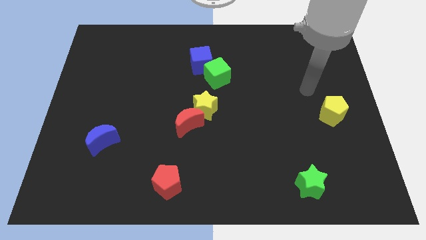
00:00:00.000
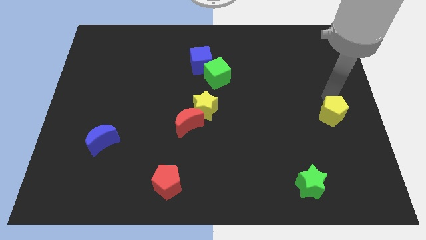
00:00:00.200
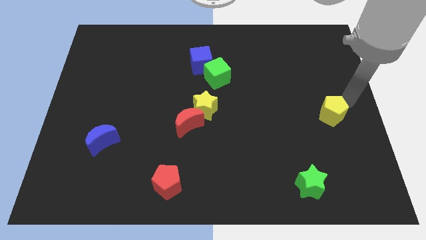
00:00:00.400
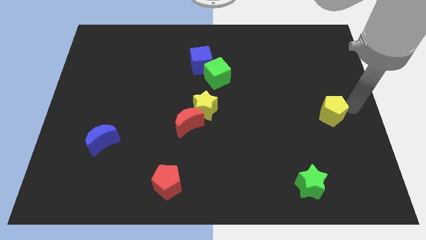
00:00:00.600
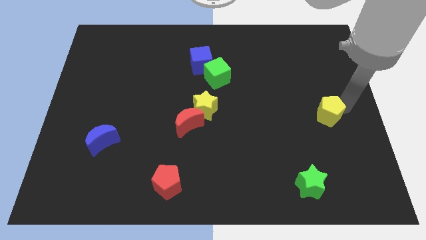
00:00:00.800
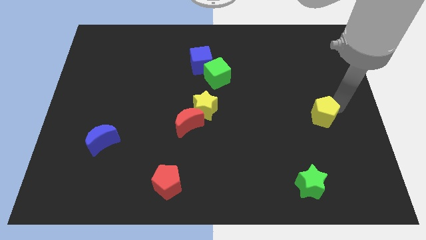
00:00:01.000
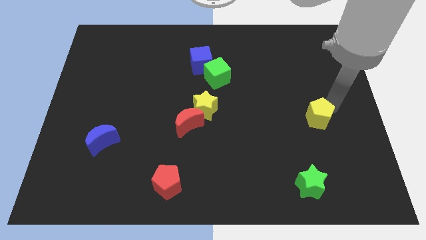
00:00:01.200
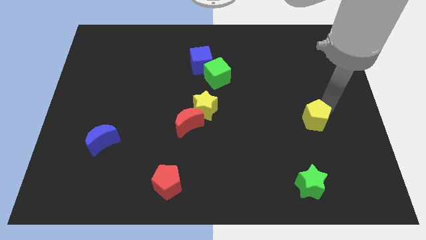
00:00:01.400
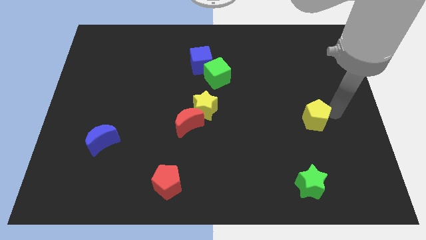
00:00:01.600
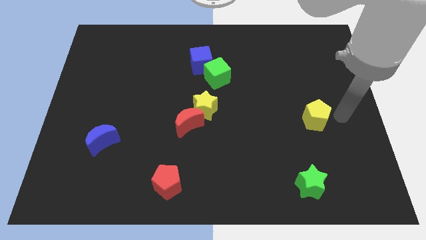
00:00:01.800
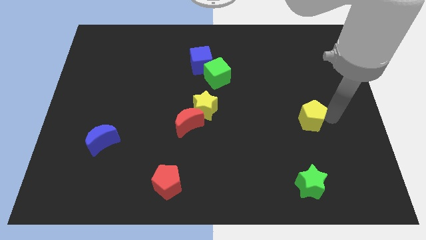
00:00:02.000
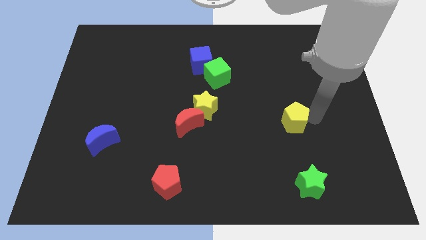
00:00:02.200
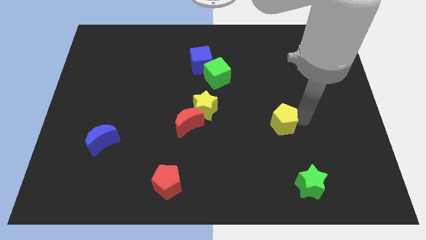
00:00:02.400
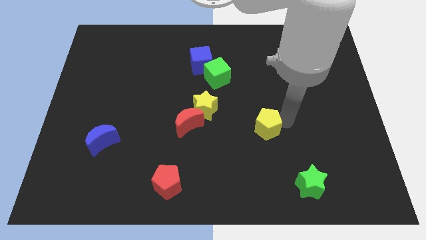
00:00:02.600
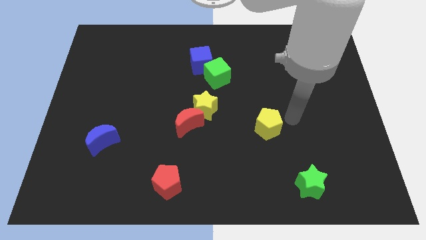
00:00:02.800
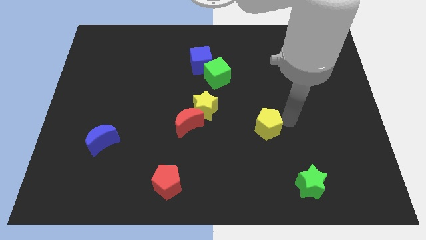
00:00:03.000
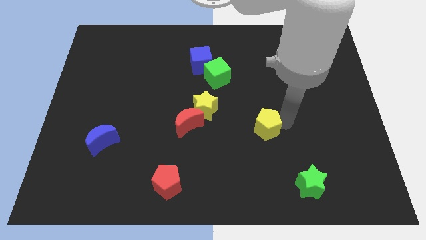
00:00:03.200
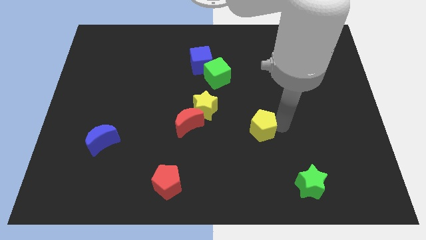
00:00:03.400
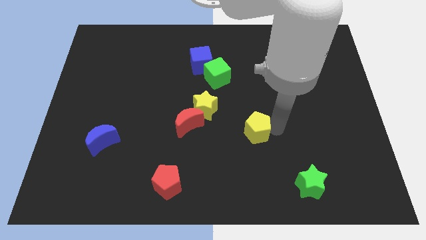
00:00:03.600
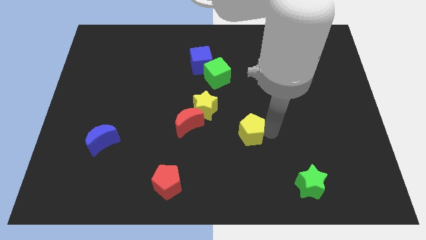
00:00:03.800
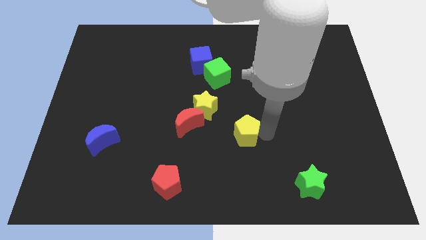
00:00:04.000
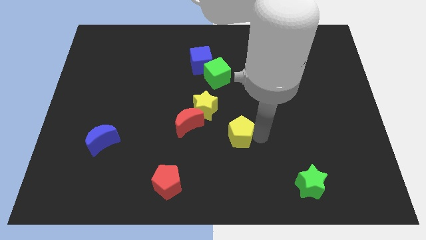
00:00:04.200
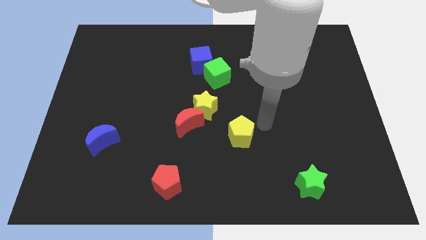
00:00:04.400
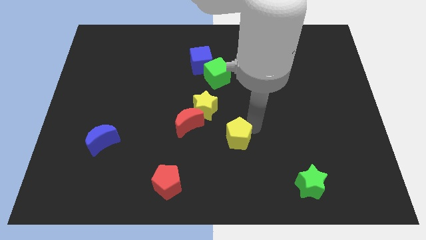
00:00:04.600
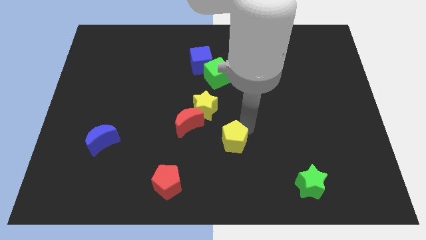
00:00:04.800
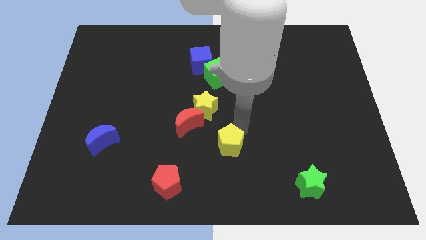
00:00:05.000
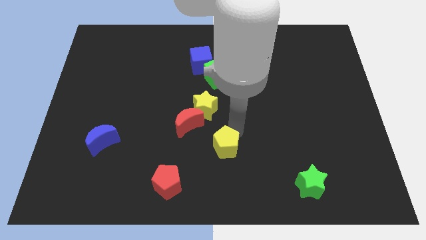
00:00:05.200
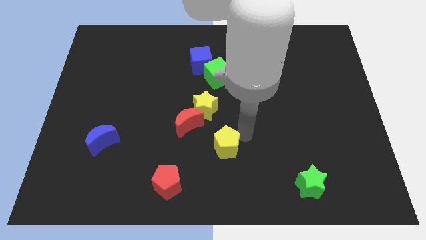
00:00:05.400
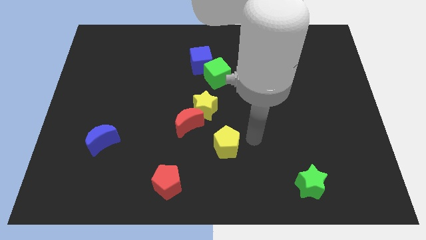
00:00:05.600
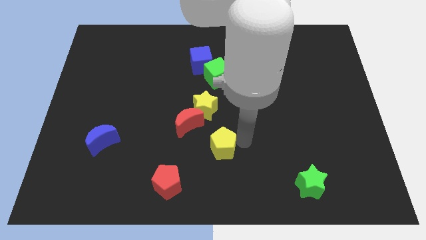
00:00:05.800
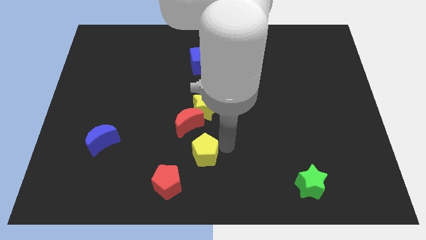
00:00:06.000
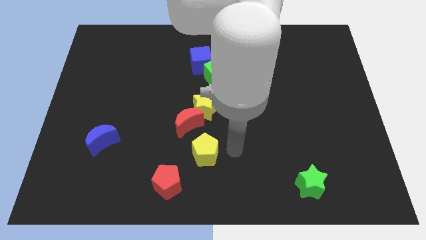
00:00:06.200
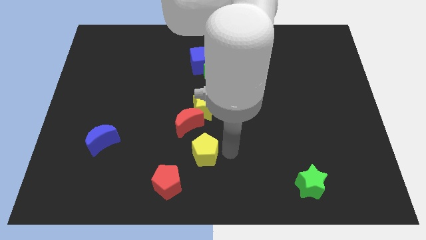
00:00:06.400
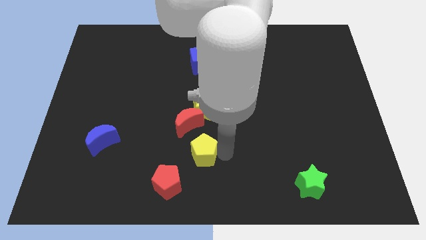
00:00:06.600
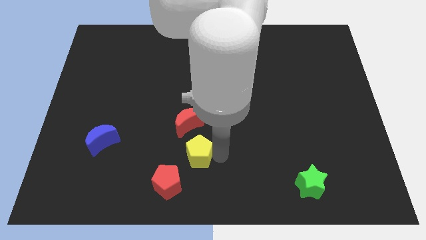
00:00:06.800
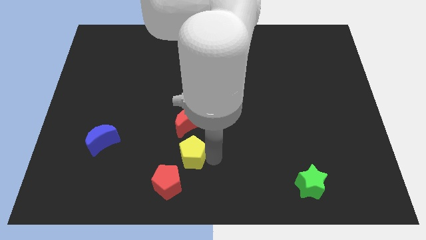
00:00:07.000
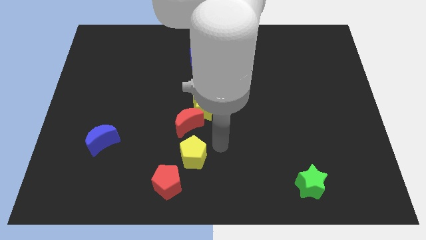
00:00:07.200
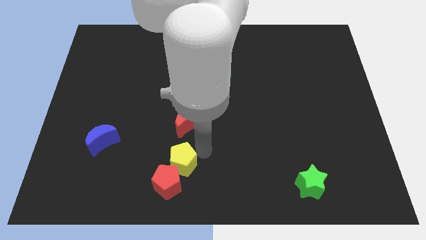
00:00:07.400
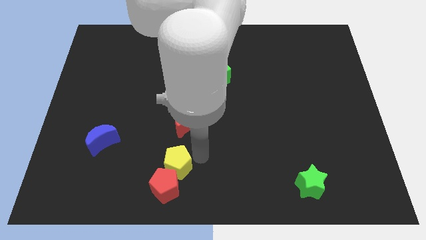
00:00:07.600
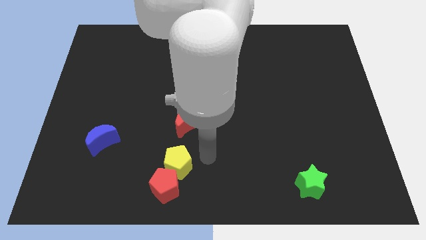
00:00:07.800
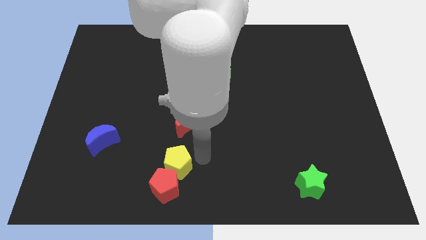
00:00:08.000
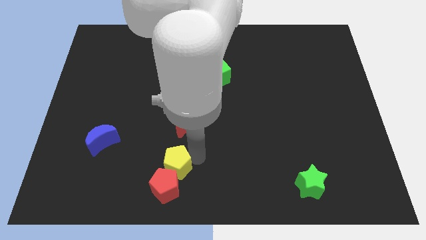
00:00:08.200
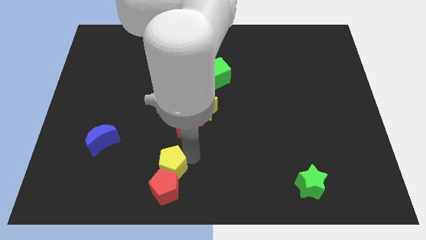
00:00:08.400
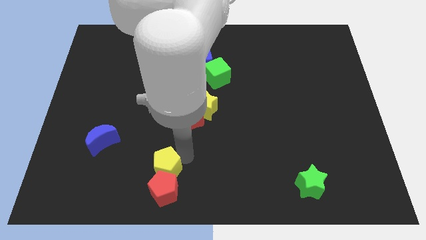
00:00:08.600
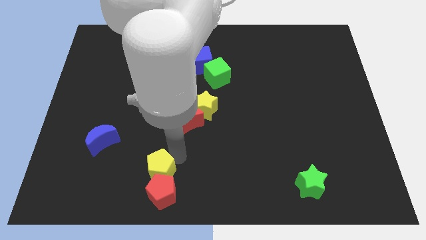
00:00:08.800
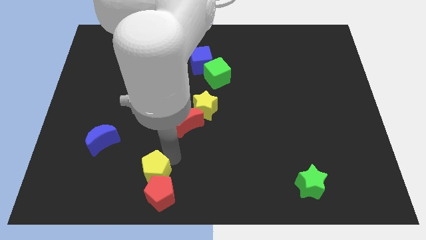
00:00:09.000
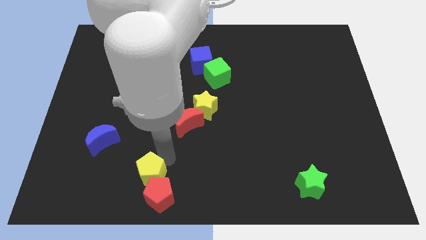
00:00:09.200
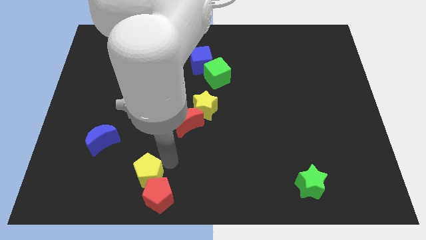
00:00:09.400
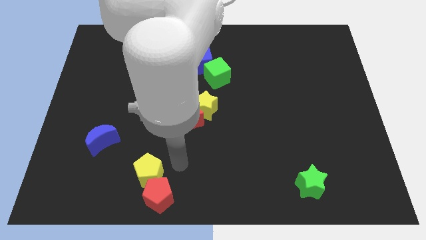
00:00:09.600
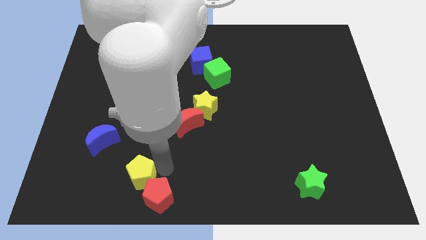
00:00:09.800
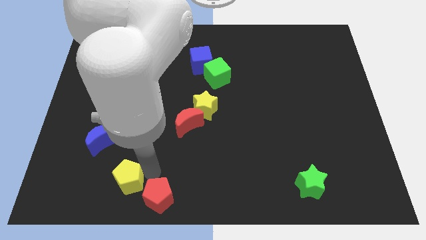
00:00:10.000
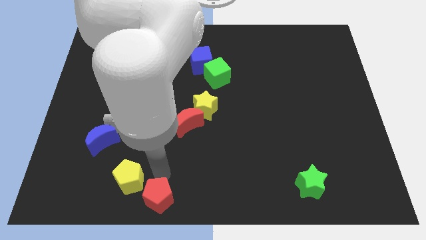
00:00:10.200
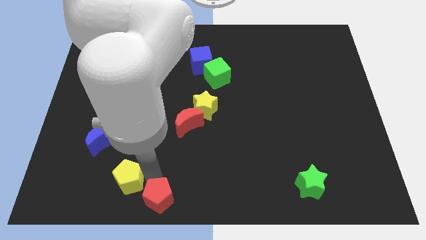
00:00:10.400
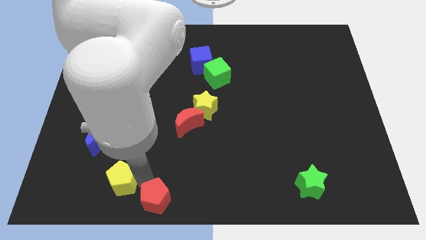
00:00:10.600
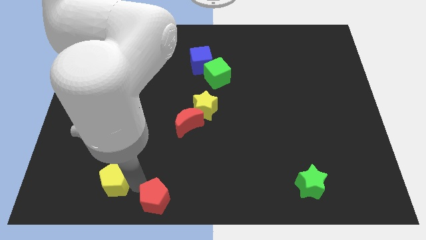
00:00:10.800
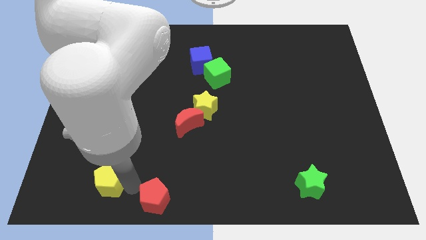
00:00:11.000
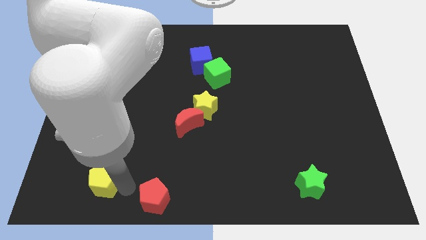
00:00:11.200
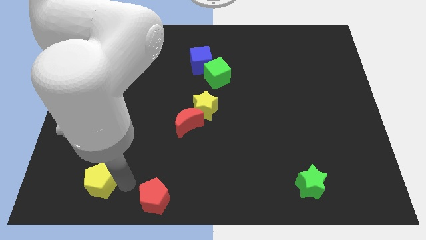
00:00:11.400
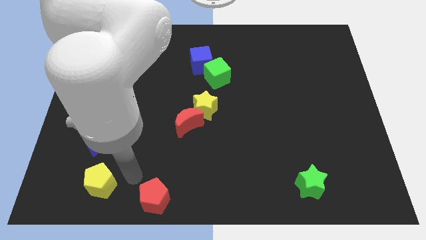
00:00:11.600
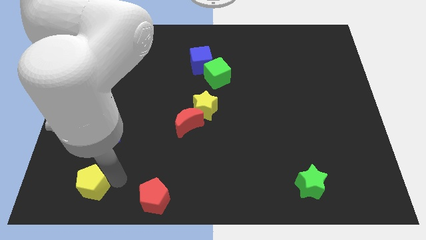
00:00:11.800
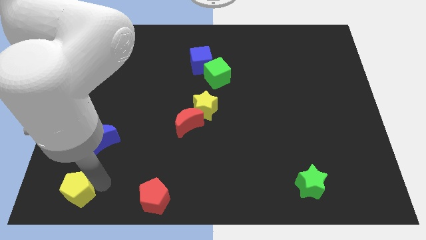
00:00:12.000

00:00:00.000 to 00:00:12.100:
slide the yellow pentagon to the bottom left

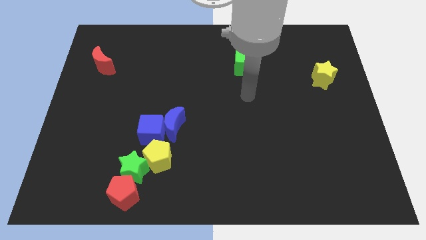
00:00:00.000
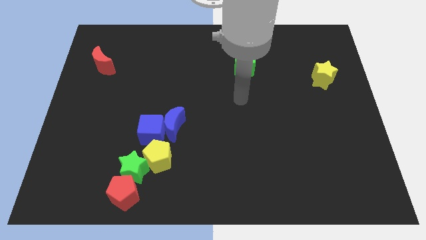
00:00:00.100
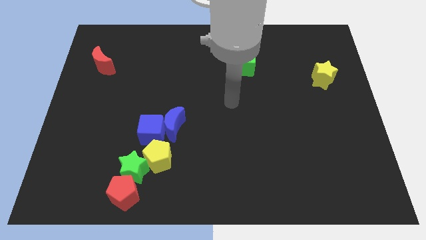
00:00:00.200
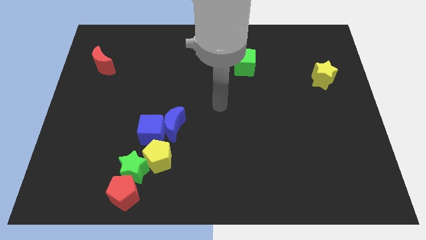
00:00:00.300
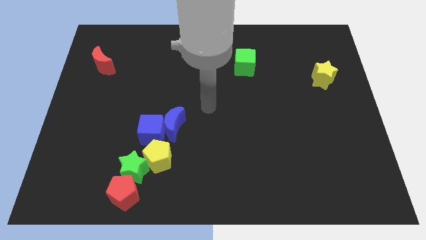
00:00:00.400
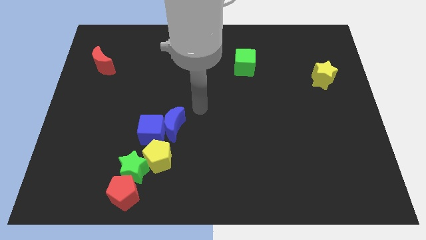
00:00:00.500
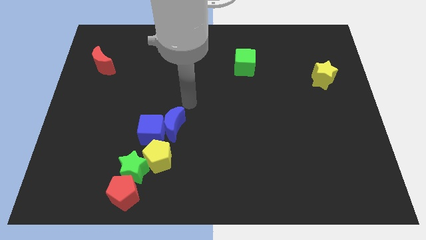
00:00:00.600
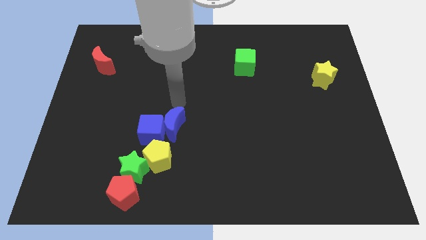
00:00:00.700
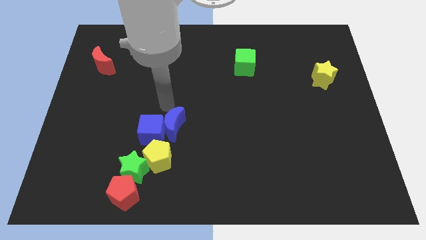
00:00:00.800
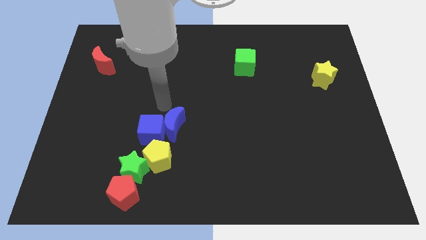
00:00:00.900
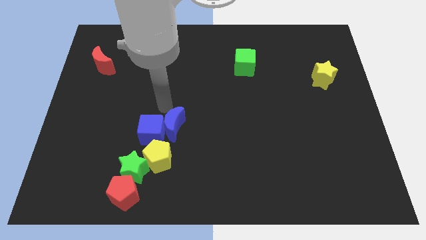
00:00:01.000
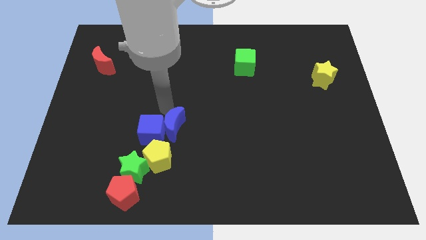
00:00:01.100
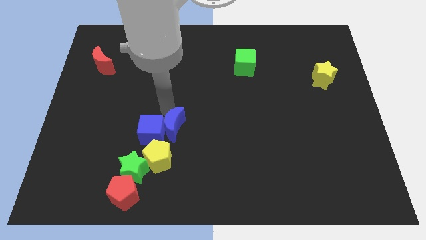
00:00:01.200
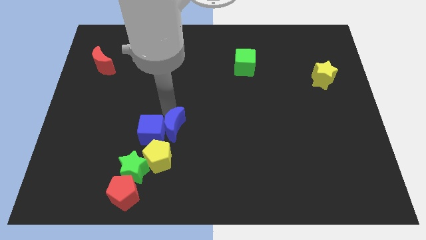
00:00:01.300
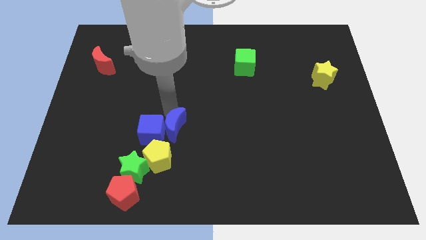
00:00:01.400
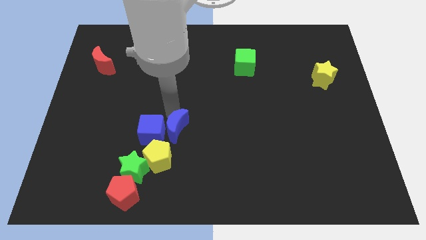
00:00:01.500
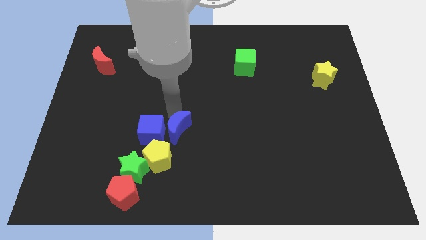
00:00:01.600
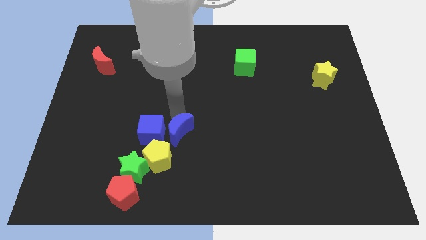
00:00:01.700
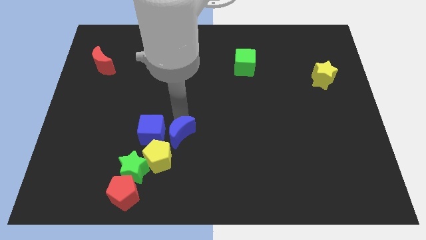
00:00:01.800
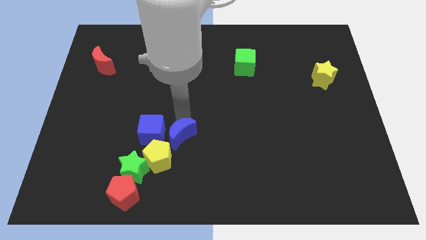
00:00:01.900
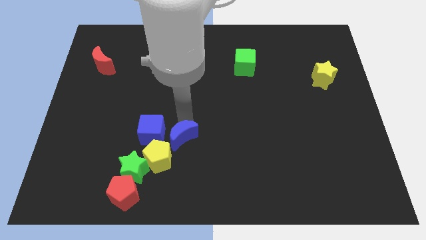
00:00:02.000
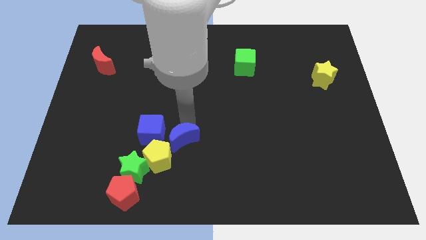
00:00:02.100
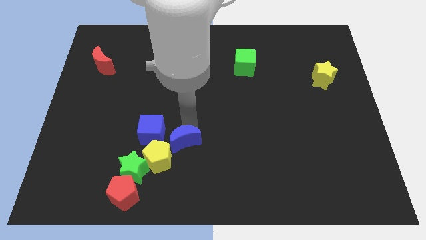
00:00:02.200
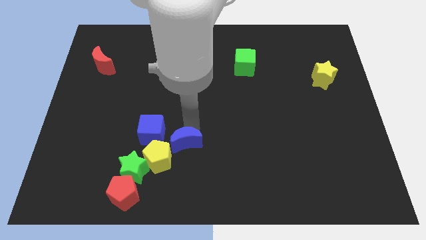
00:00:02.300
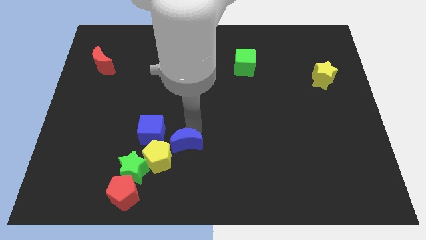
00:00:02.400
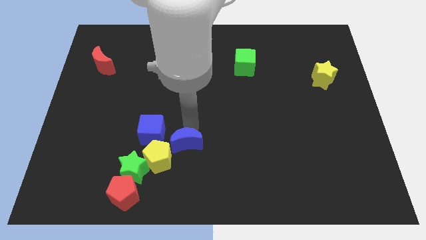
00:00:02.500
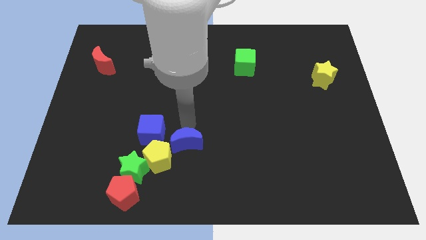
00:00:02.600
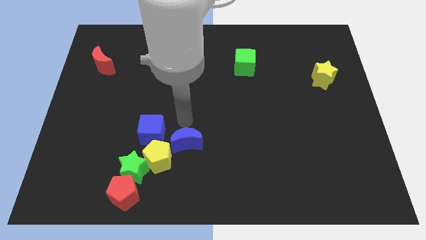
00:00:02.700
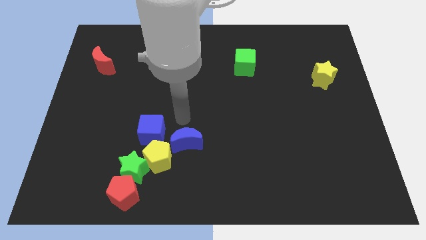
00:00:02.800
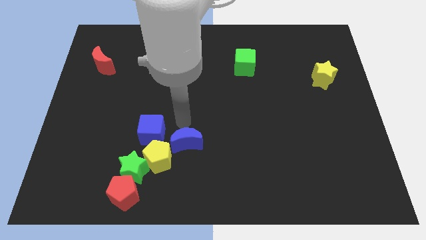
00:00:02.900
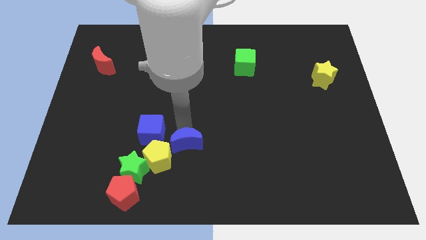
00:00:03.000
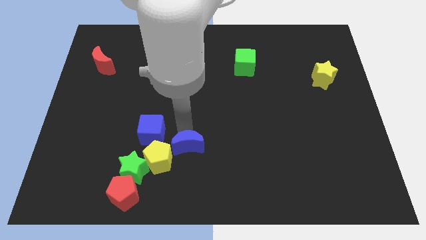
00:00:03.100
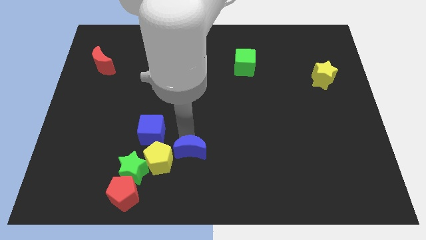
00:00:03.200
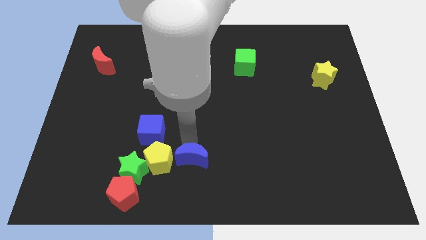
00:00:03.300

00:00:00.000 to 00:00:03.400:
put the blue moon to the bottom side
